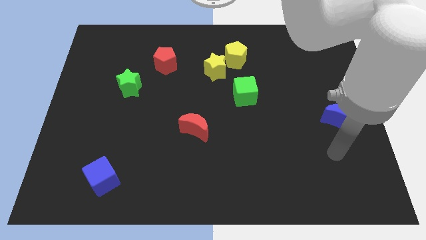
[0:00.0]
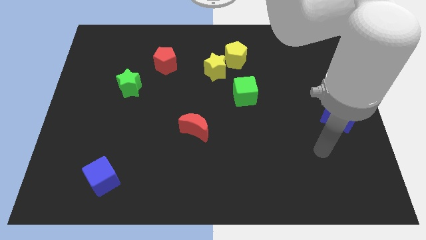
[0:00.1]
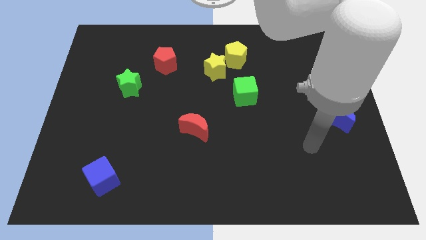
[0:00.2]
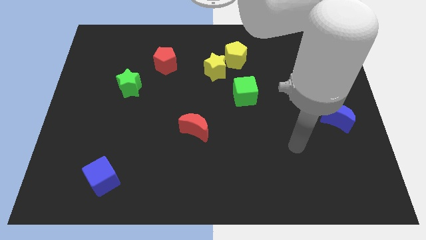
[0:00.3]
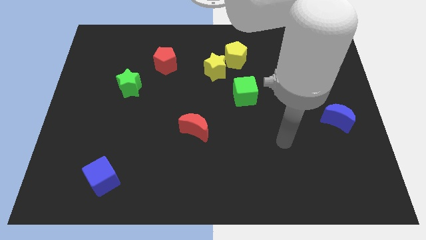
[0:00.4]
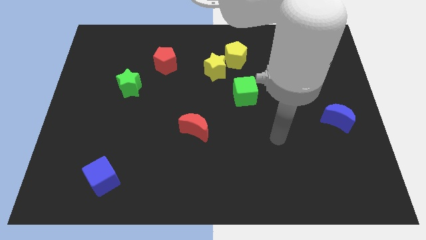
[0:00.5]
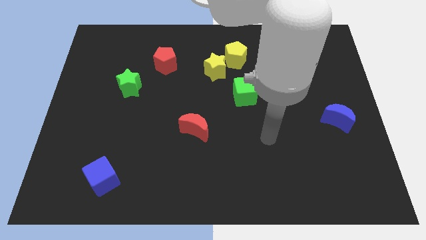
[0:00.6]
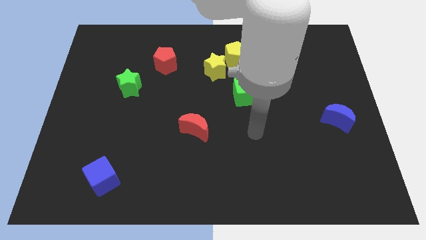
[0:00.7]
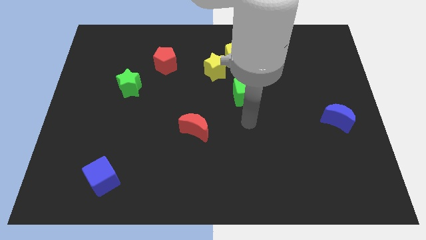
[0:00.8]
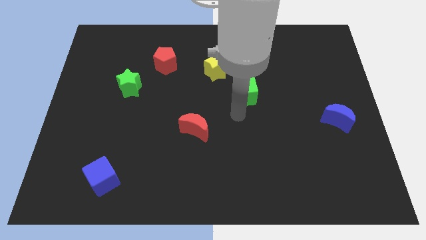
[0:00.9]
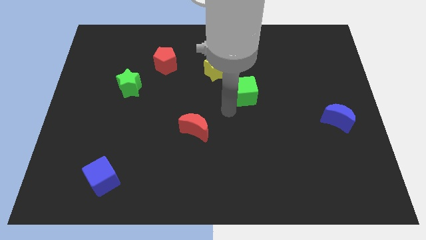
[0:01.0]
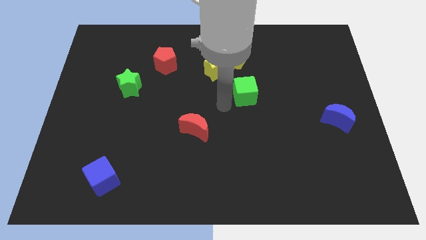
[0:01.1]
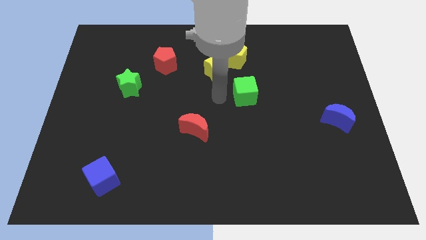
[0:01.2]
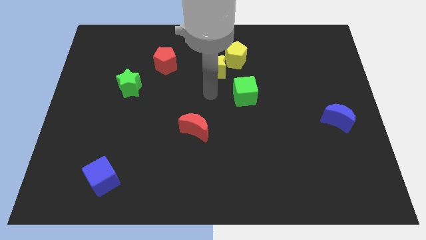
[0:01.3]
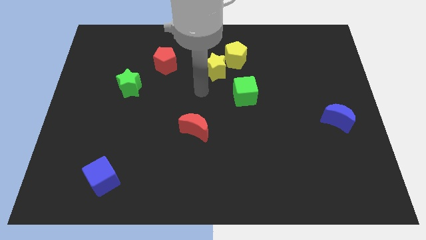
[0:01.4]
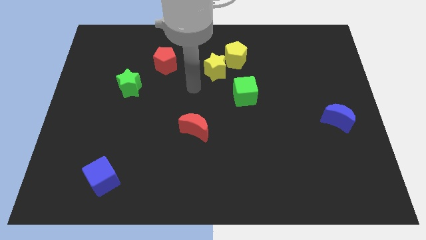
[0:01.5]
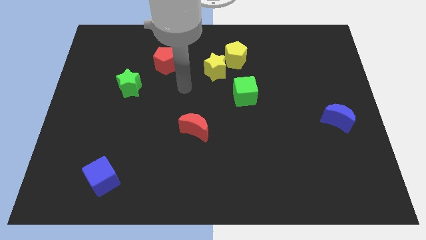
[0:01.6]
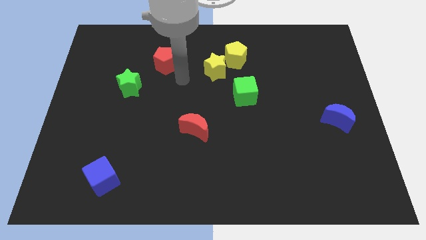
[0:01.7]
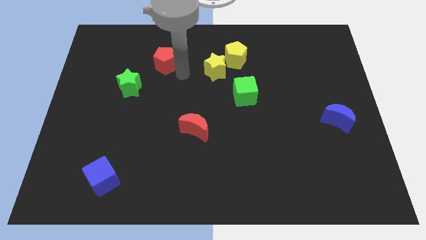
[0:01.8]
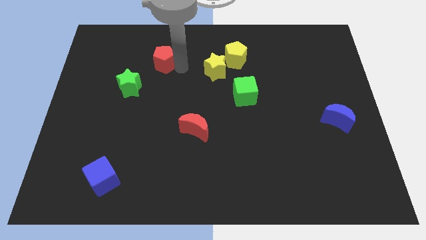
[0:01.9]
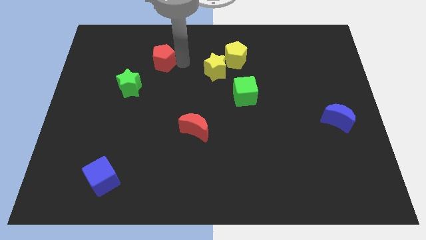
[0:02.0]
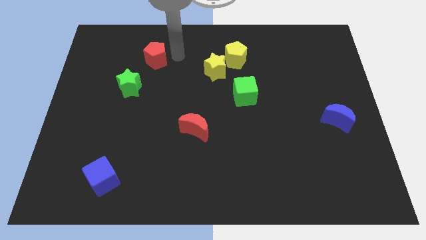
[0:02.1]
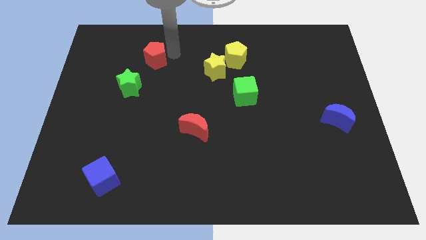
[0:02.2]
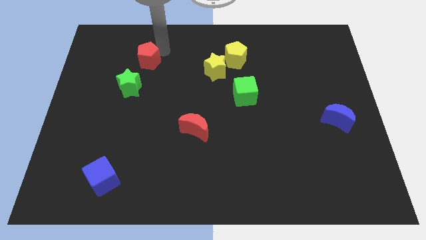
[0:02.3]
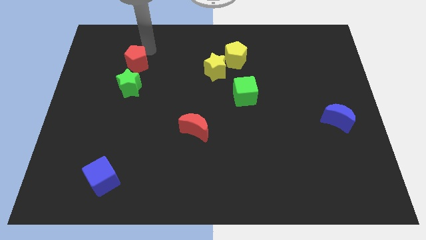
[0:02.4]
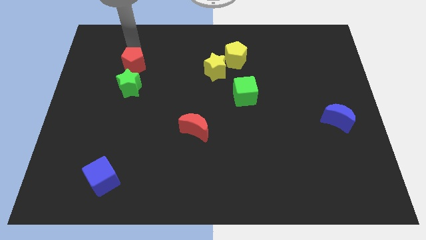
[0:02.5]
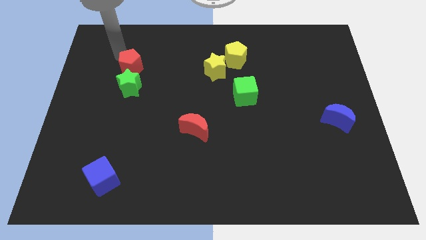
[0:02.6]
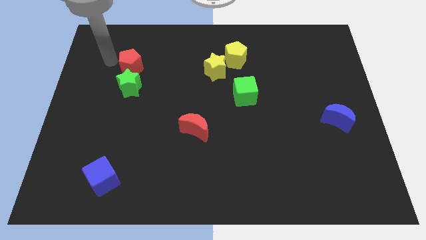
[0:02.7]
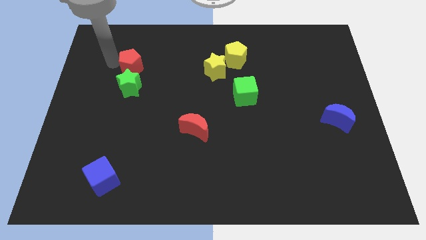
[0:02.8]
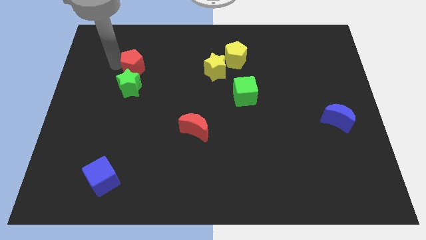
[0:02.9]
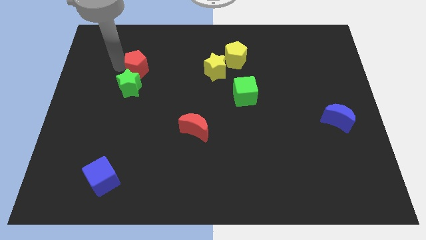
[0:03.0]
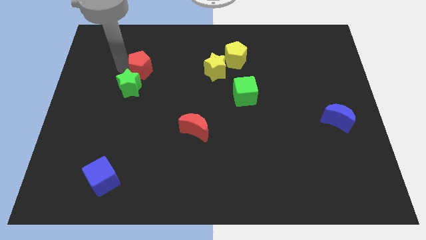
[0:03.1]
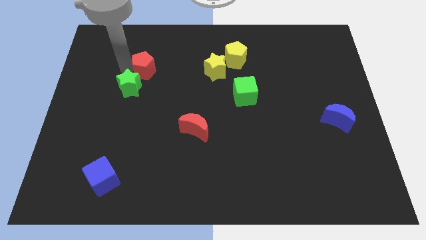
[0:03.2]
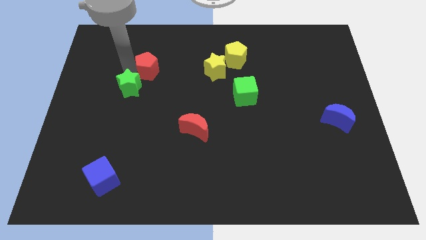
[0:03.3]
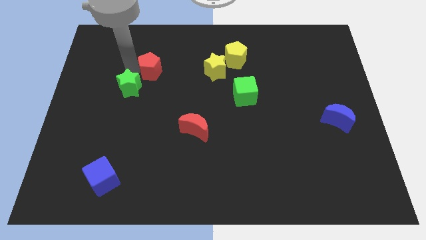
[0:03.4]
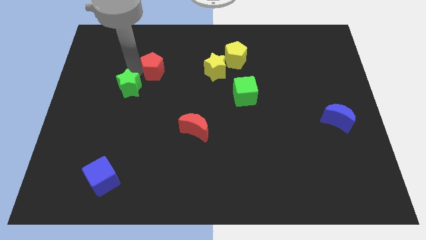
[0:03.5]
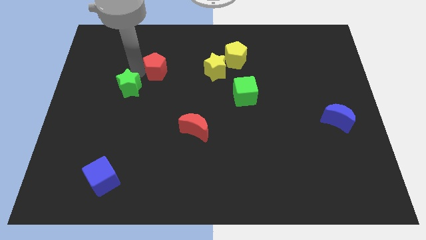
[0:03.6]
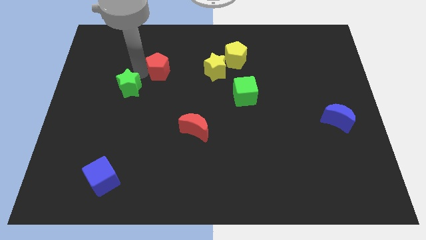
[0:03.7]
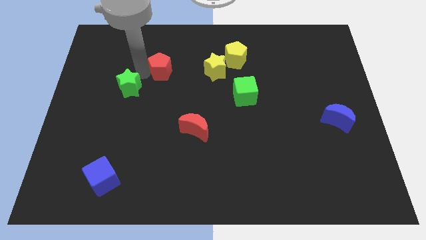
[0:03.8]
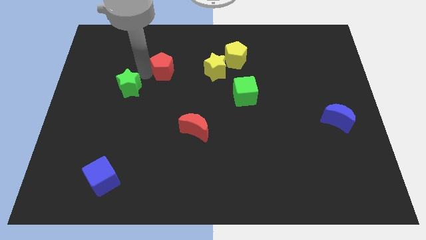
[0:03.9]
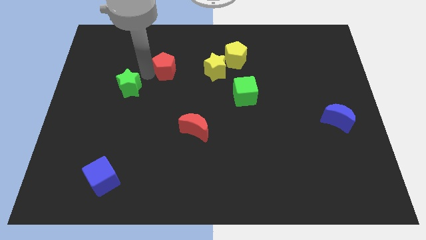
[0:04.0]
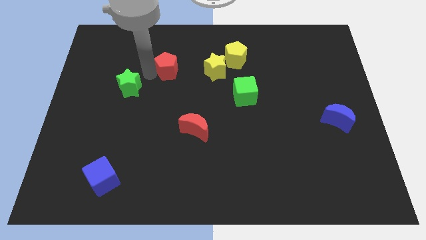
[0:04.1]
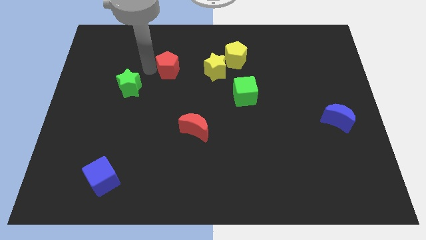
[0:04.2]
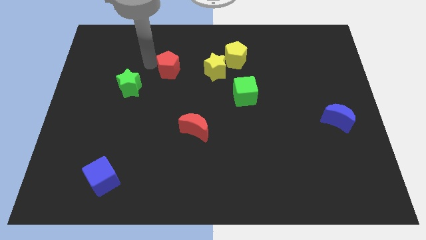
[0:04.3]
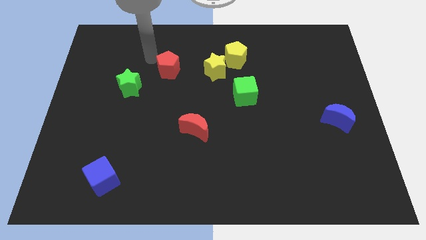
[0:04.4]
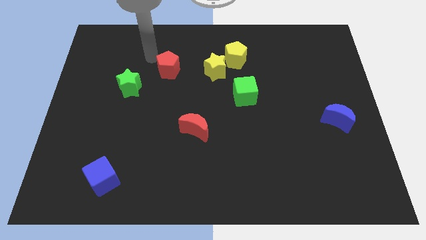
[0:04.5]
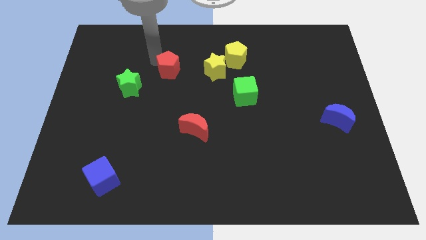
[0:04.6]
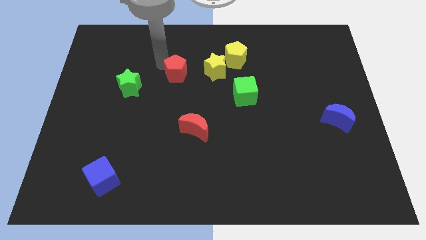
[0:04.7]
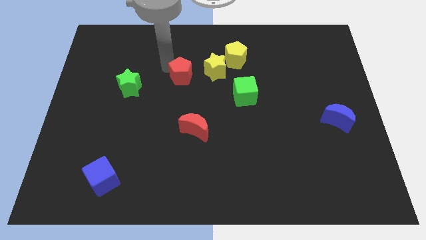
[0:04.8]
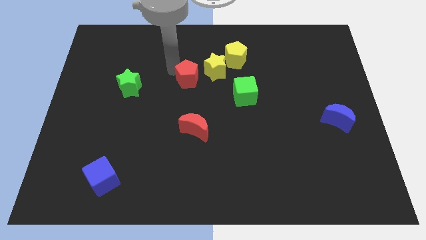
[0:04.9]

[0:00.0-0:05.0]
slide the red pentagon to the bottom left of the yellow star

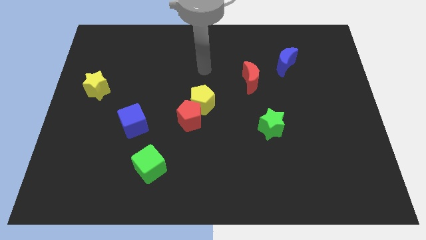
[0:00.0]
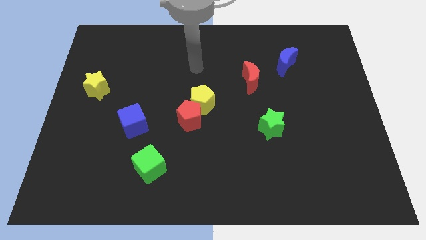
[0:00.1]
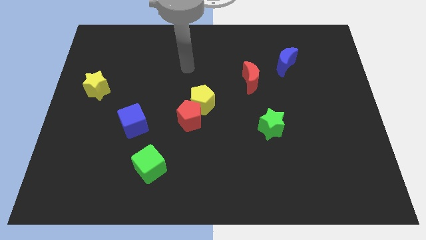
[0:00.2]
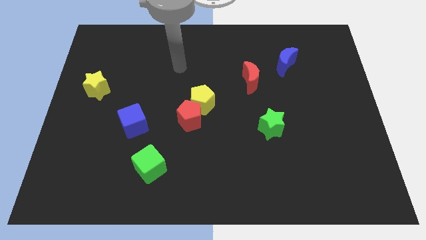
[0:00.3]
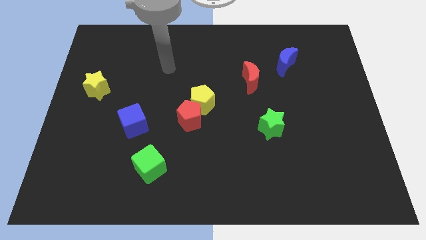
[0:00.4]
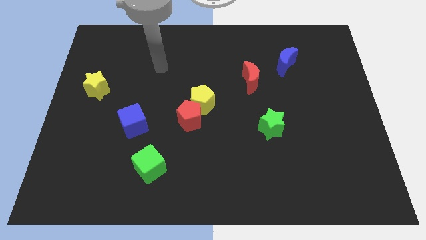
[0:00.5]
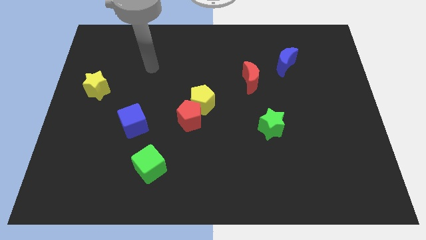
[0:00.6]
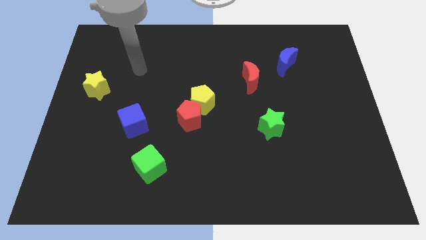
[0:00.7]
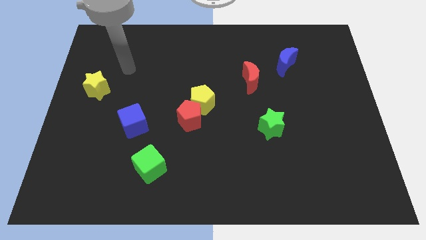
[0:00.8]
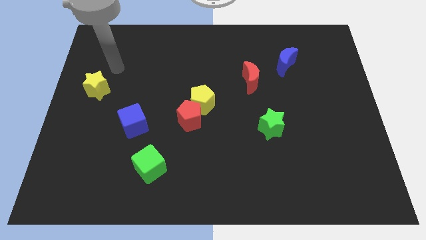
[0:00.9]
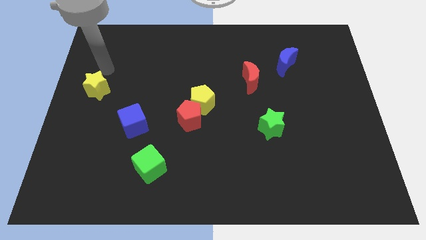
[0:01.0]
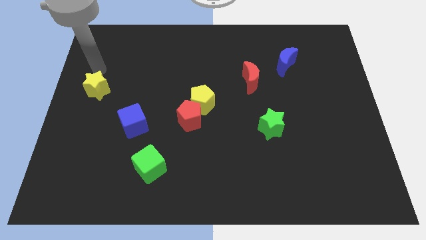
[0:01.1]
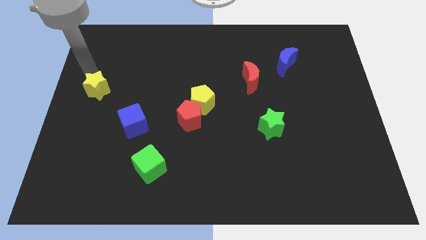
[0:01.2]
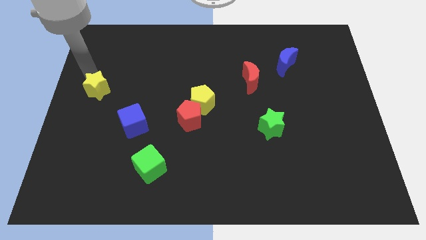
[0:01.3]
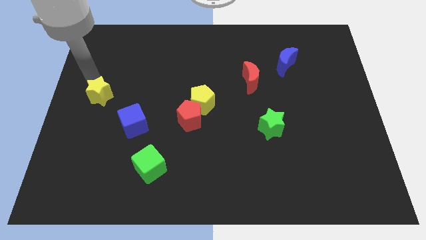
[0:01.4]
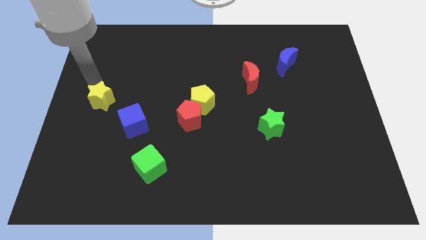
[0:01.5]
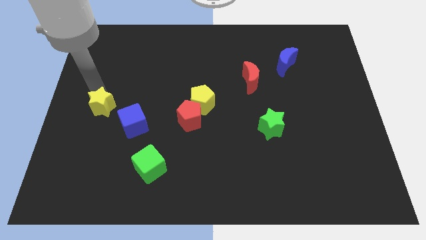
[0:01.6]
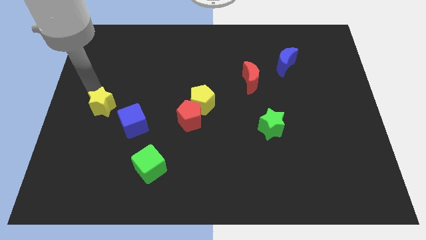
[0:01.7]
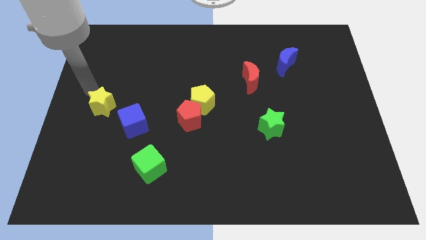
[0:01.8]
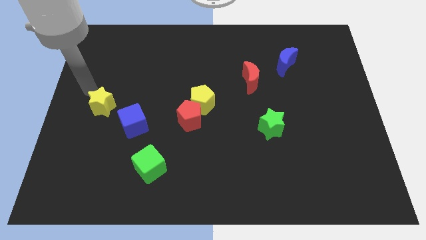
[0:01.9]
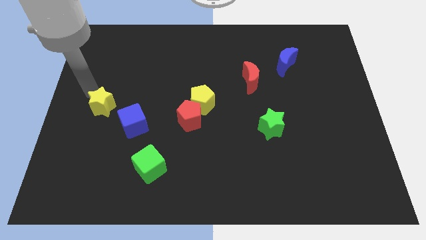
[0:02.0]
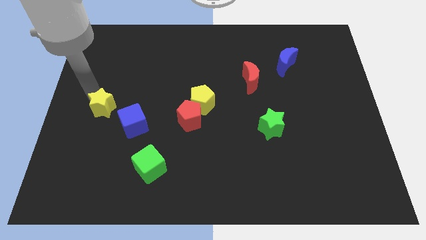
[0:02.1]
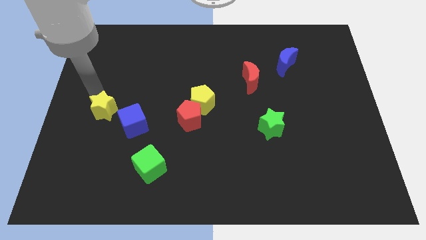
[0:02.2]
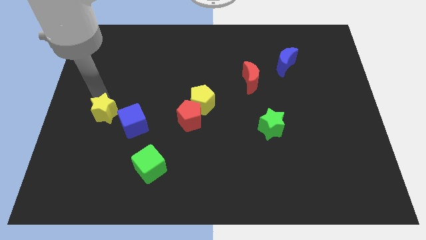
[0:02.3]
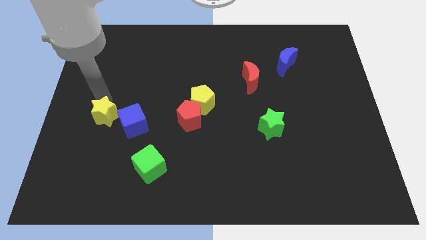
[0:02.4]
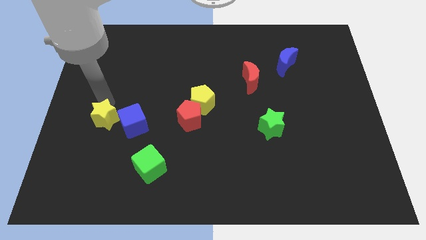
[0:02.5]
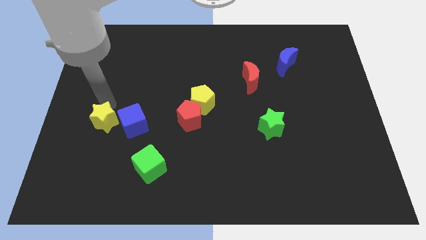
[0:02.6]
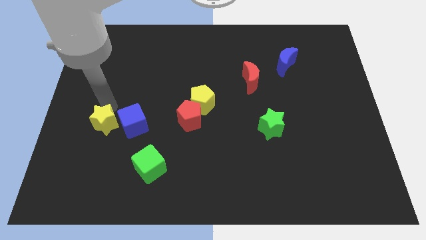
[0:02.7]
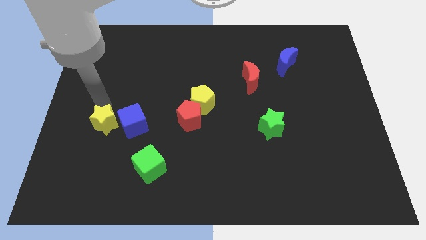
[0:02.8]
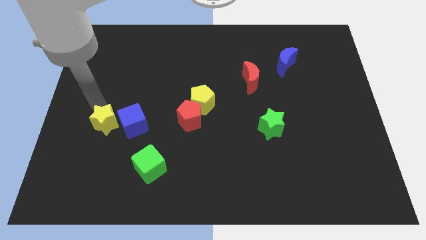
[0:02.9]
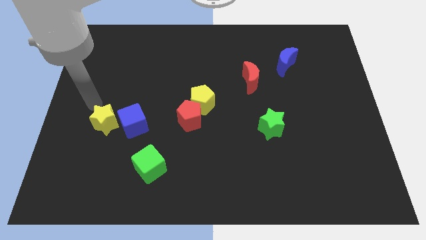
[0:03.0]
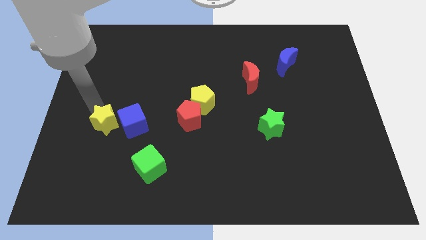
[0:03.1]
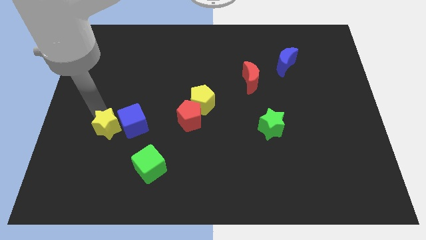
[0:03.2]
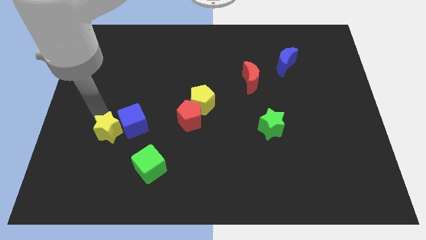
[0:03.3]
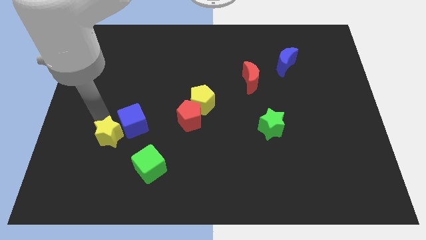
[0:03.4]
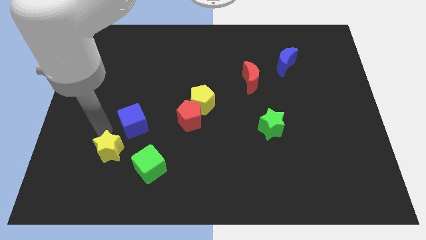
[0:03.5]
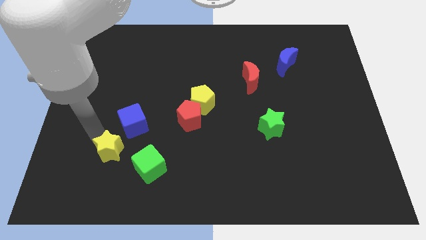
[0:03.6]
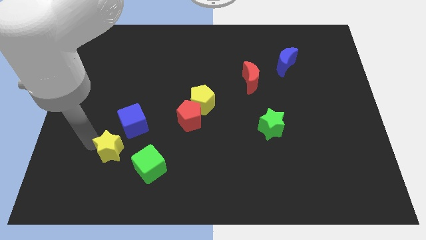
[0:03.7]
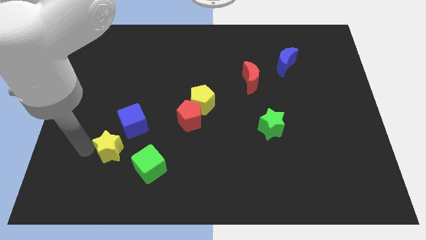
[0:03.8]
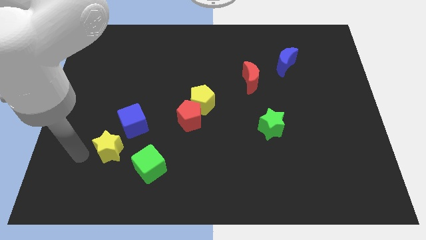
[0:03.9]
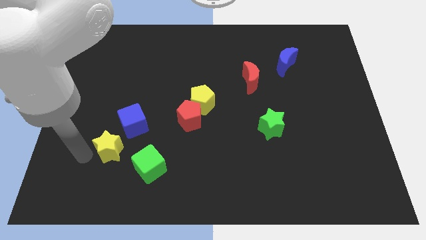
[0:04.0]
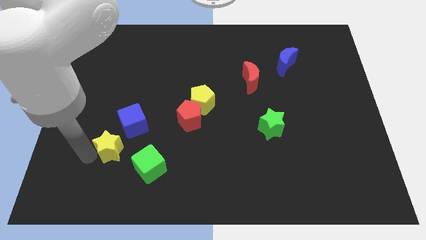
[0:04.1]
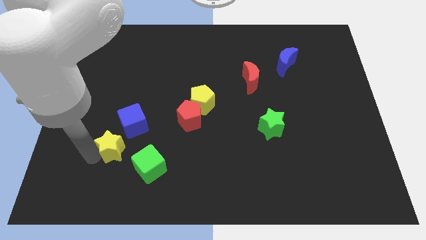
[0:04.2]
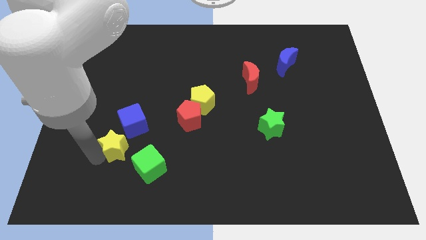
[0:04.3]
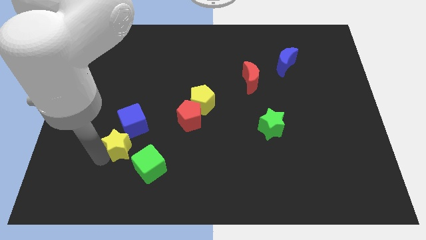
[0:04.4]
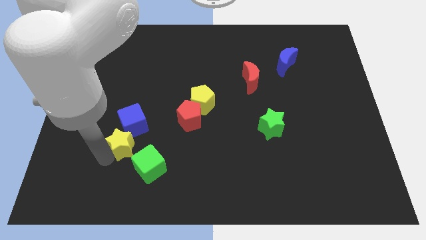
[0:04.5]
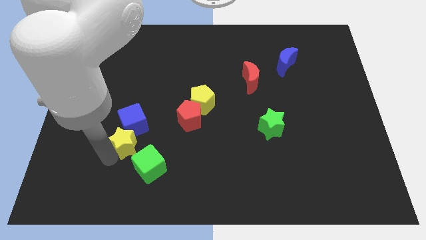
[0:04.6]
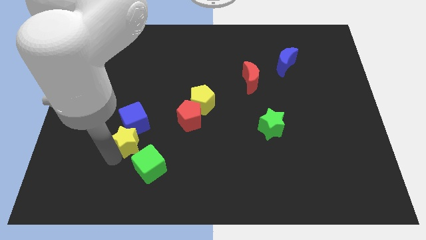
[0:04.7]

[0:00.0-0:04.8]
move the yellow star diagonally down and to the right of the blue cube
